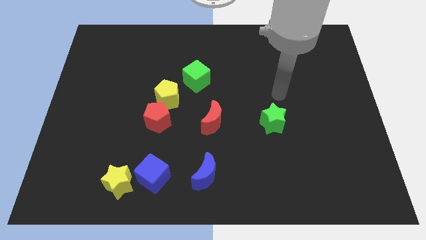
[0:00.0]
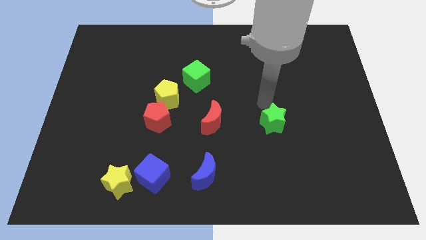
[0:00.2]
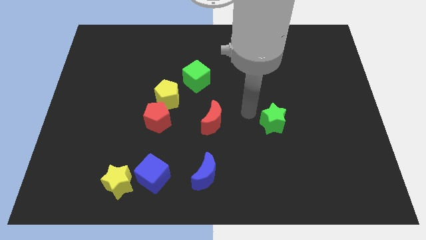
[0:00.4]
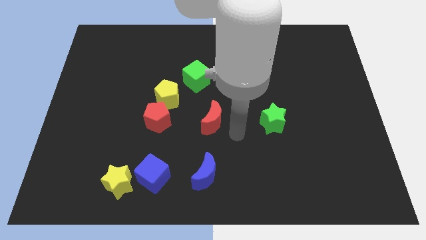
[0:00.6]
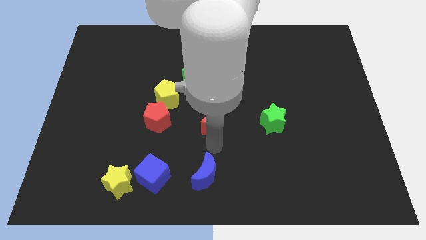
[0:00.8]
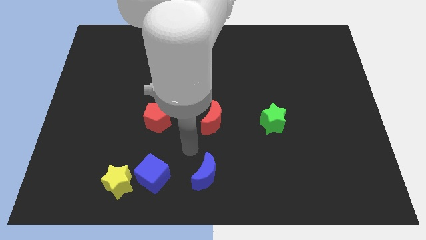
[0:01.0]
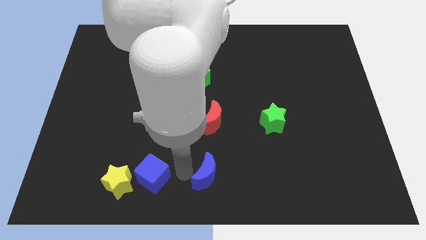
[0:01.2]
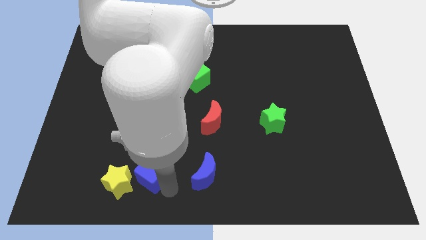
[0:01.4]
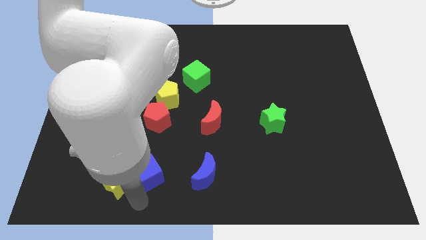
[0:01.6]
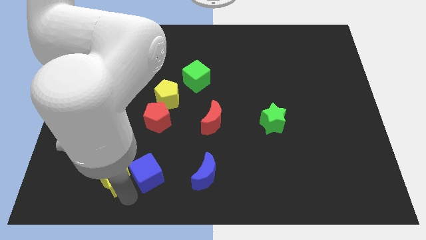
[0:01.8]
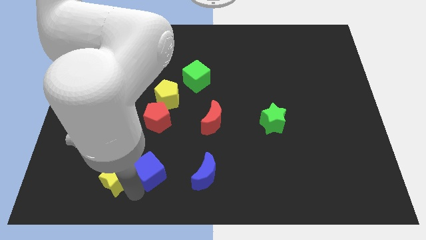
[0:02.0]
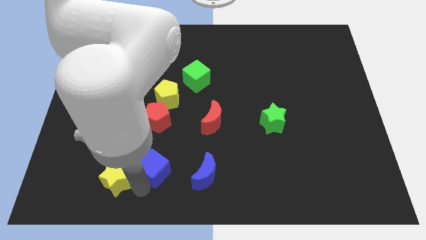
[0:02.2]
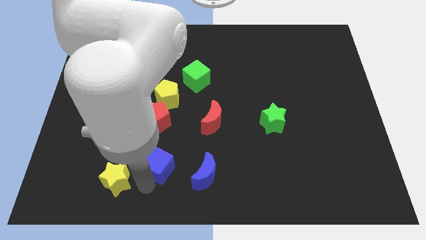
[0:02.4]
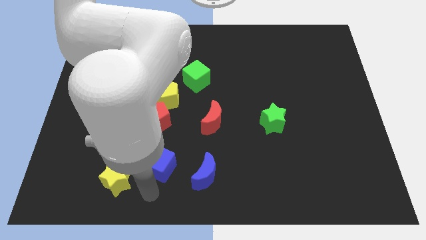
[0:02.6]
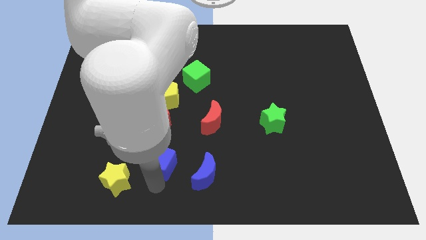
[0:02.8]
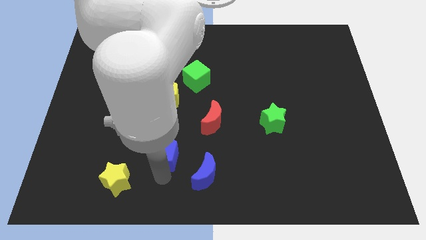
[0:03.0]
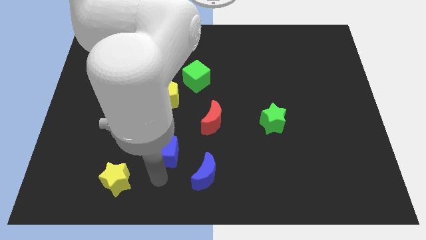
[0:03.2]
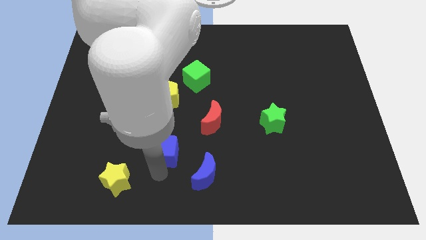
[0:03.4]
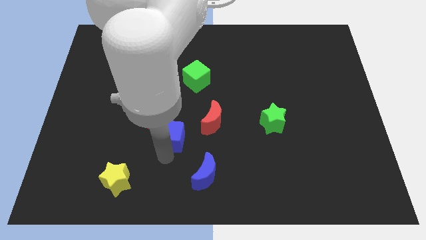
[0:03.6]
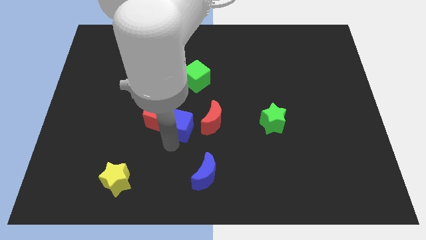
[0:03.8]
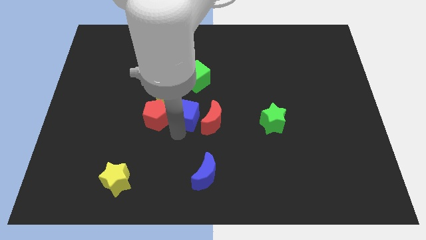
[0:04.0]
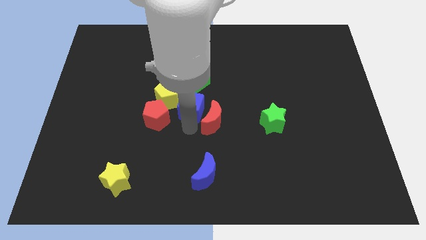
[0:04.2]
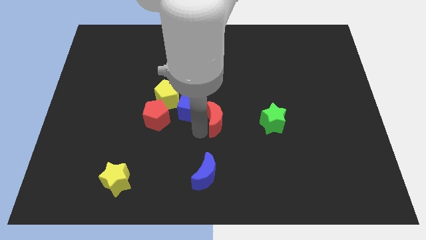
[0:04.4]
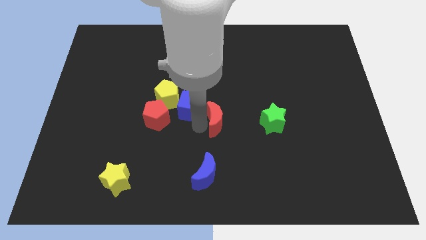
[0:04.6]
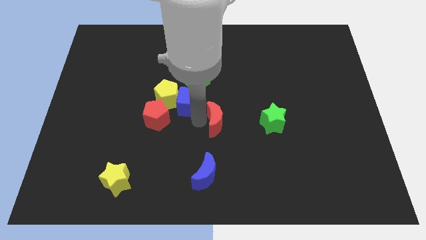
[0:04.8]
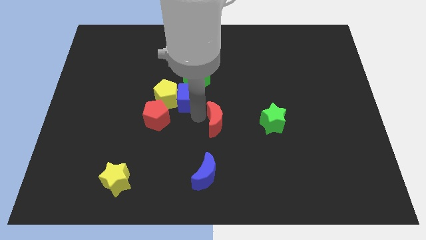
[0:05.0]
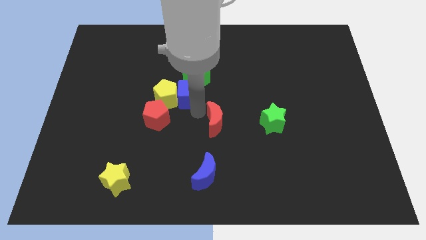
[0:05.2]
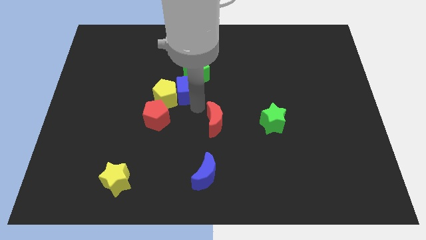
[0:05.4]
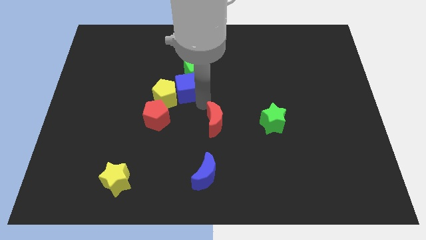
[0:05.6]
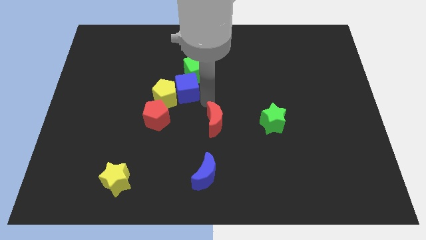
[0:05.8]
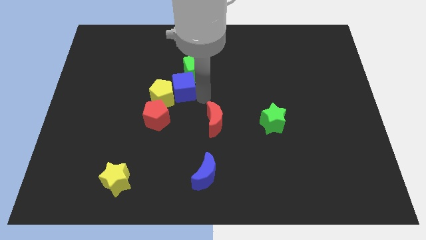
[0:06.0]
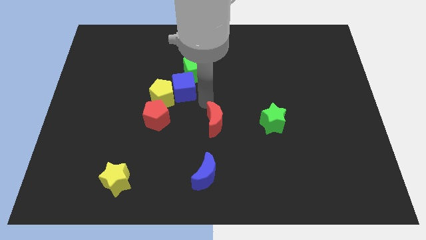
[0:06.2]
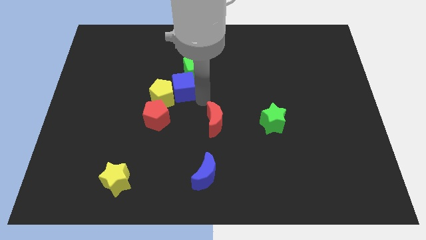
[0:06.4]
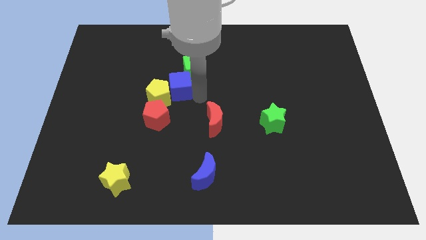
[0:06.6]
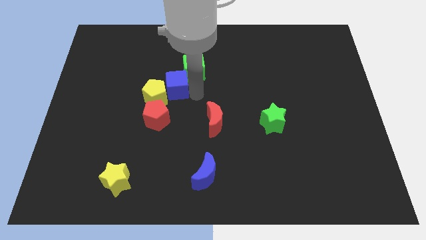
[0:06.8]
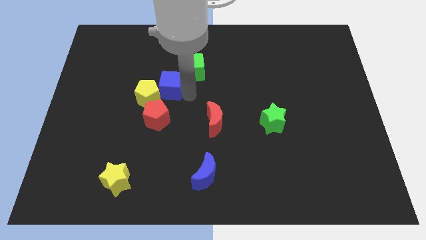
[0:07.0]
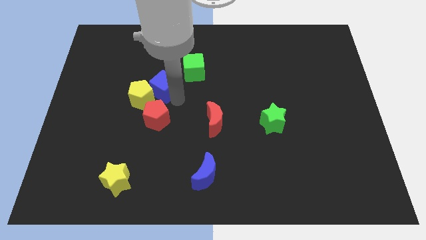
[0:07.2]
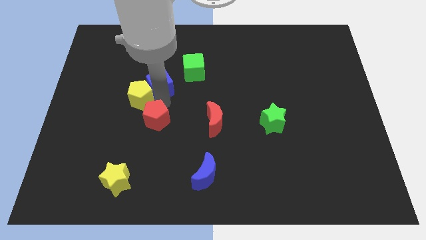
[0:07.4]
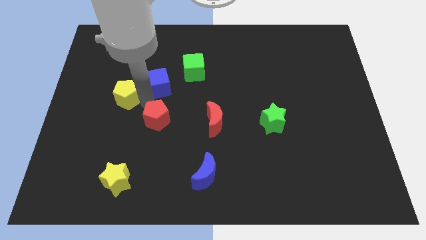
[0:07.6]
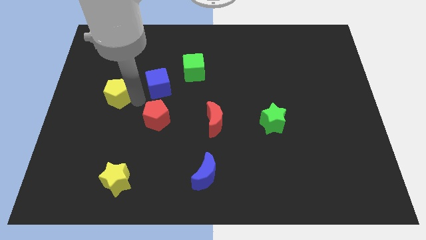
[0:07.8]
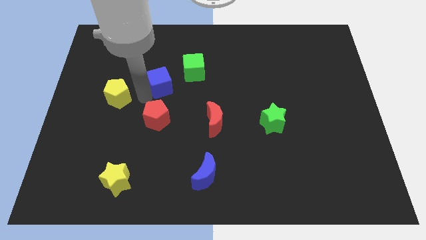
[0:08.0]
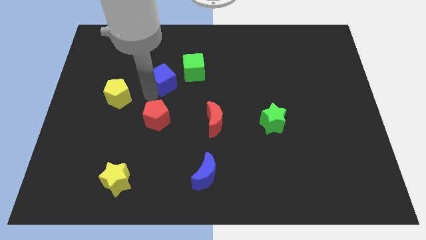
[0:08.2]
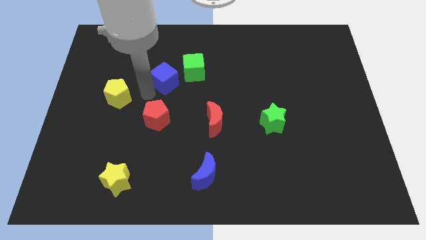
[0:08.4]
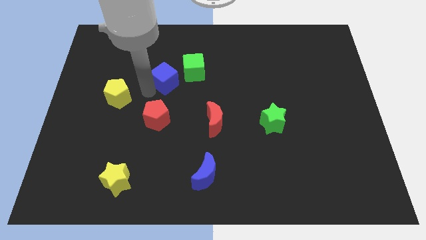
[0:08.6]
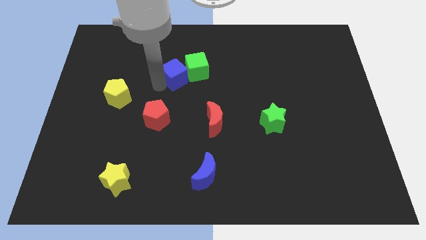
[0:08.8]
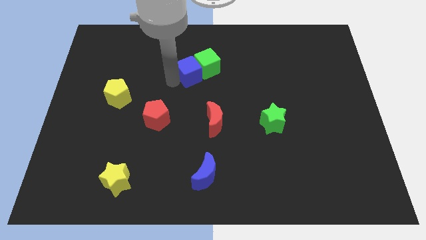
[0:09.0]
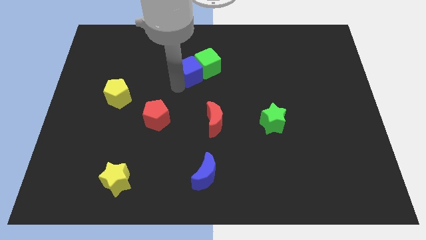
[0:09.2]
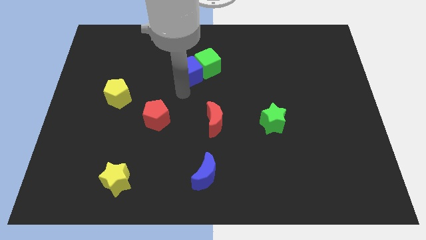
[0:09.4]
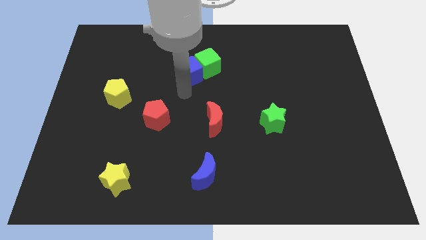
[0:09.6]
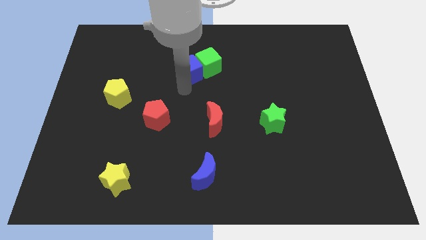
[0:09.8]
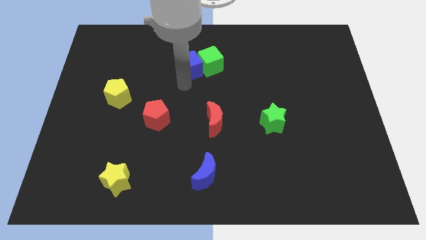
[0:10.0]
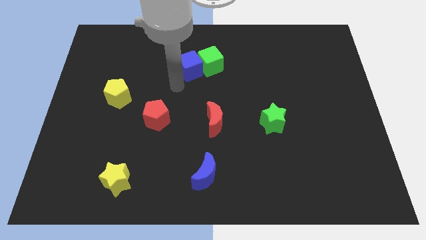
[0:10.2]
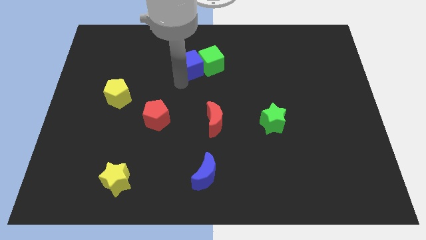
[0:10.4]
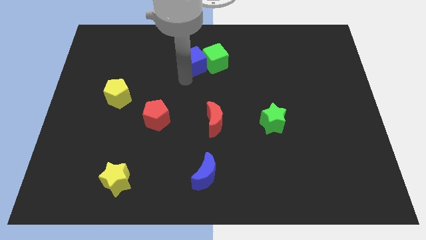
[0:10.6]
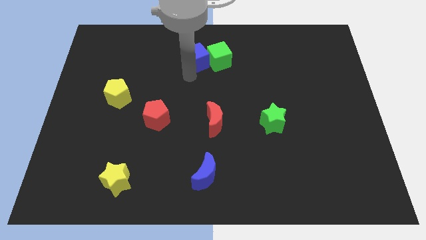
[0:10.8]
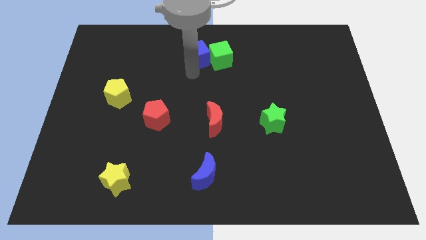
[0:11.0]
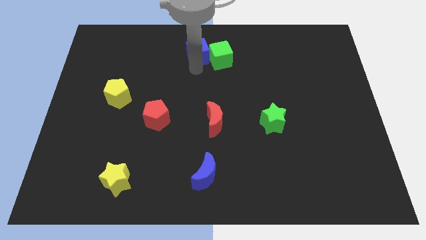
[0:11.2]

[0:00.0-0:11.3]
put the blue cube to the top side
